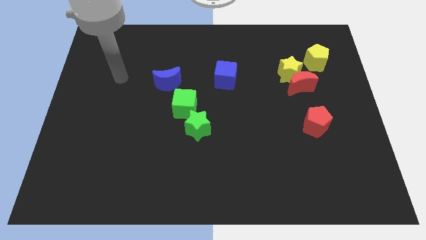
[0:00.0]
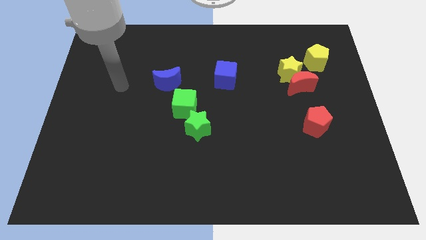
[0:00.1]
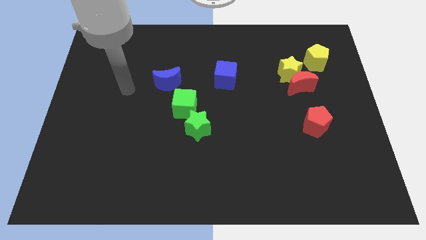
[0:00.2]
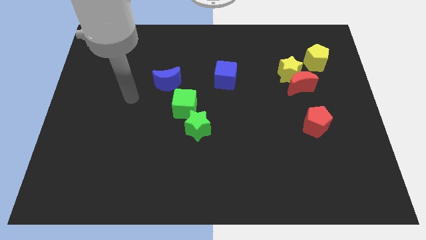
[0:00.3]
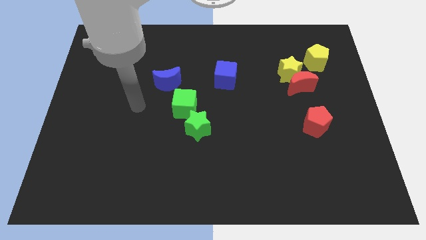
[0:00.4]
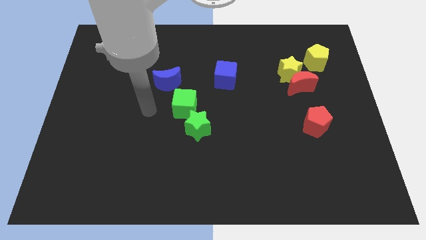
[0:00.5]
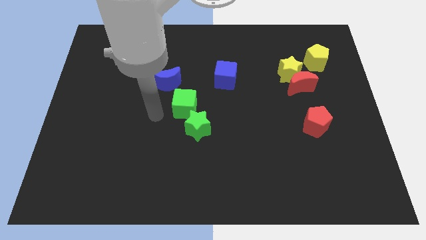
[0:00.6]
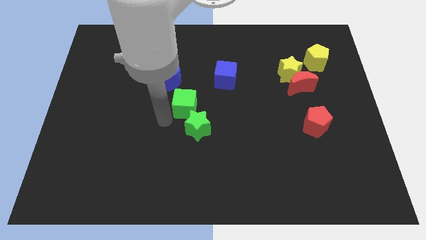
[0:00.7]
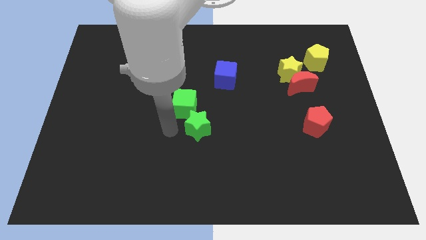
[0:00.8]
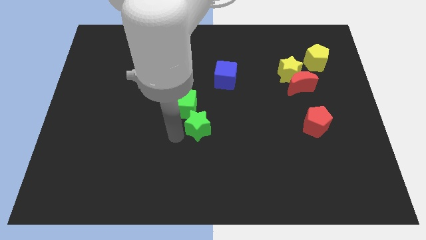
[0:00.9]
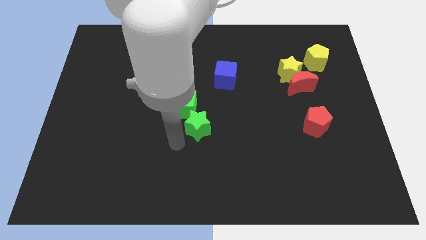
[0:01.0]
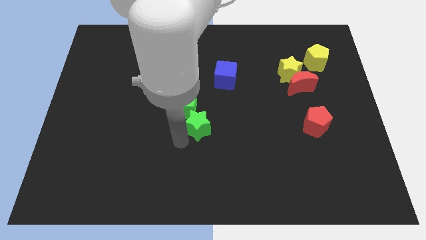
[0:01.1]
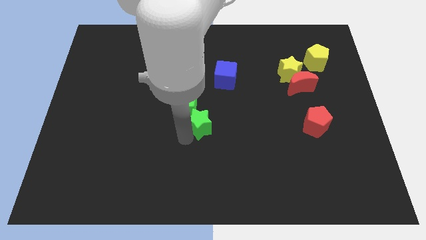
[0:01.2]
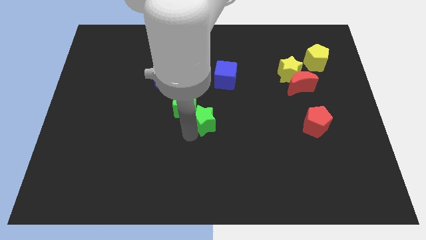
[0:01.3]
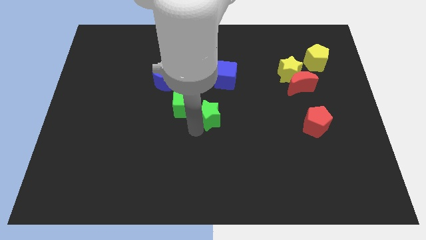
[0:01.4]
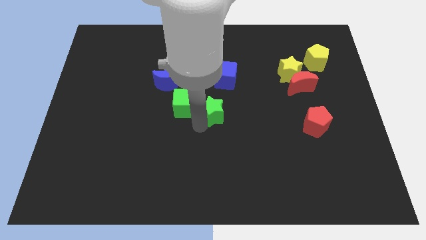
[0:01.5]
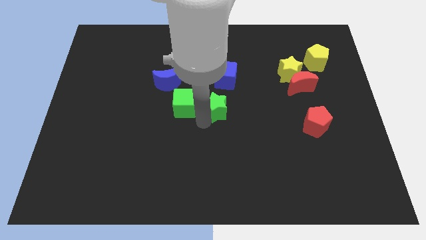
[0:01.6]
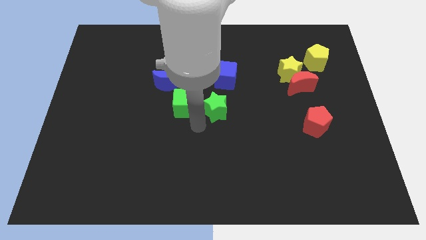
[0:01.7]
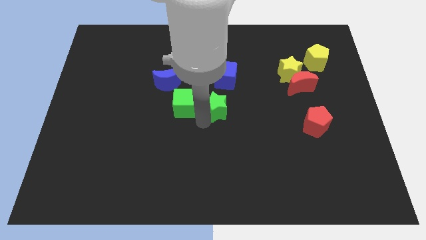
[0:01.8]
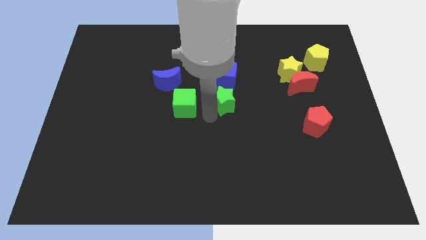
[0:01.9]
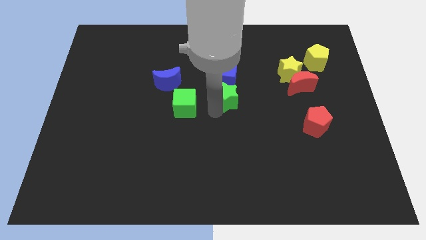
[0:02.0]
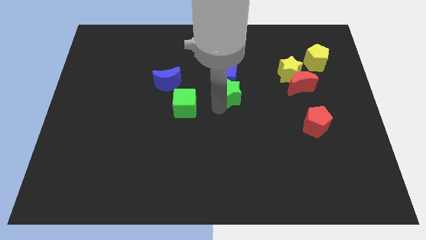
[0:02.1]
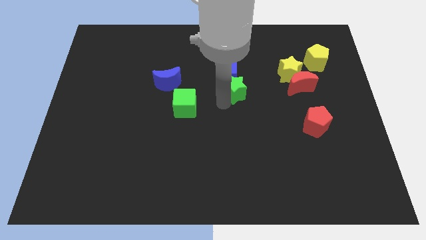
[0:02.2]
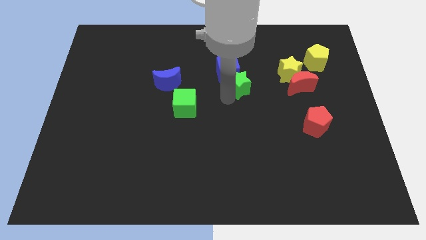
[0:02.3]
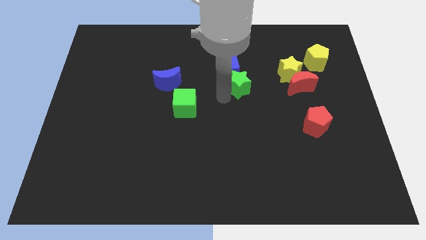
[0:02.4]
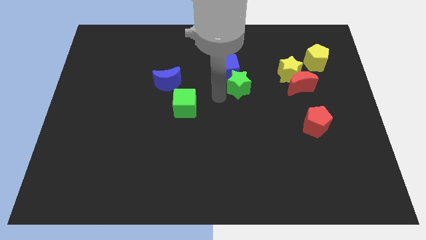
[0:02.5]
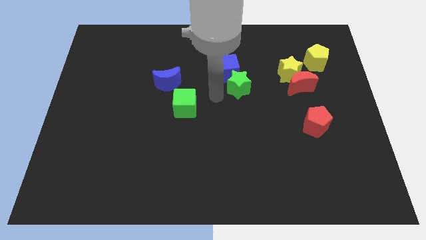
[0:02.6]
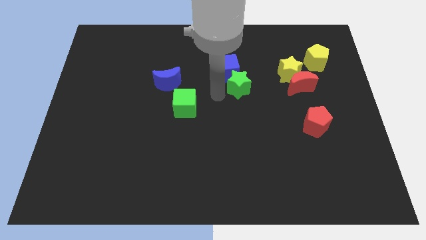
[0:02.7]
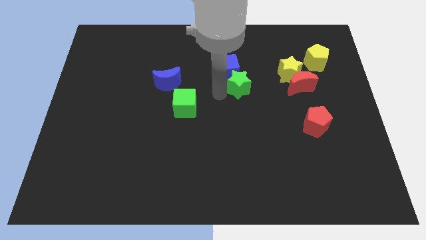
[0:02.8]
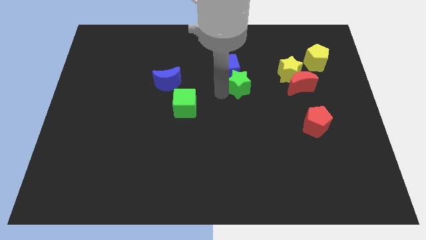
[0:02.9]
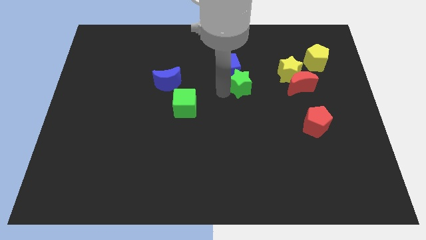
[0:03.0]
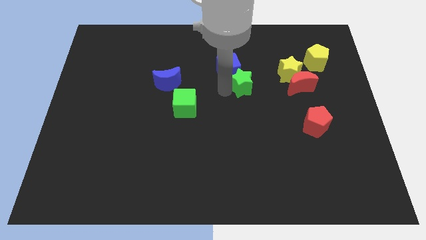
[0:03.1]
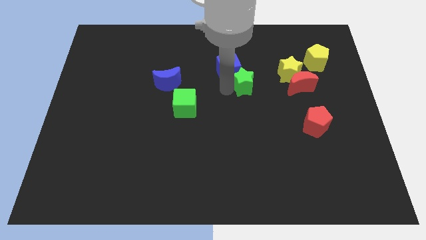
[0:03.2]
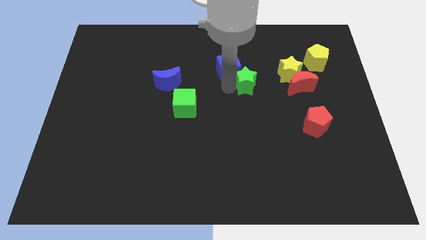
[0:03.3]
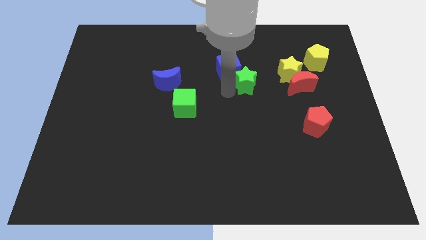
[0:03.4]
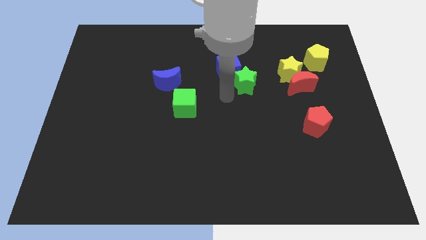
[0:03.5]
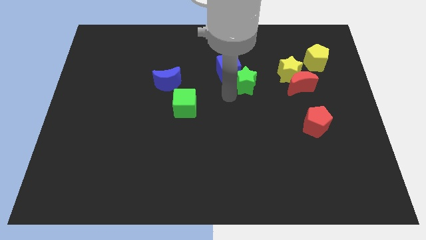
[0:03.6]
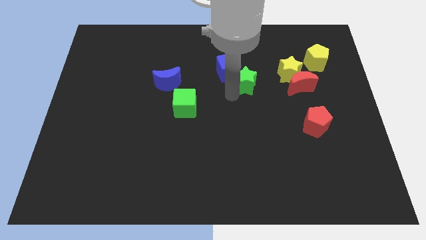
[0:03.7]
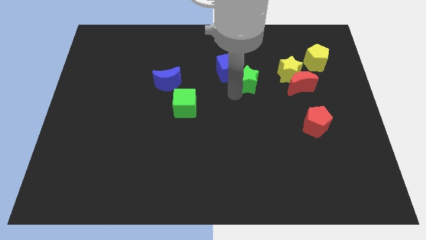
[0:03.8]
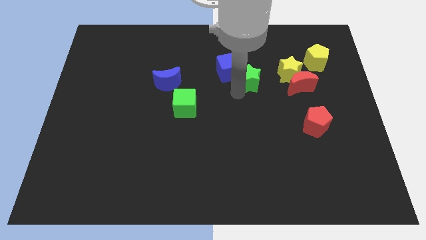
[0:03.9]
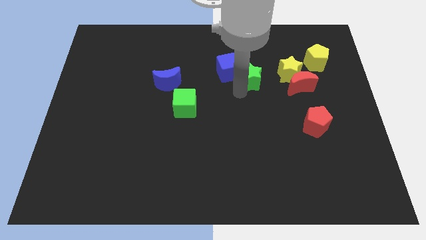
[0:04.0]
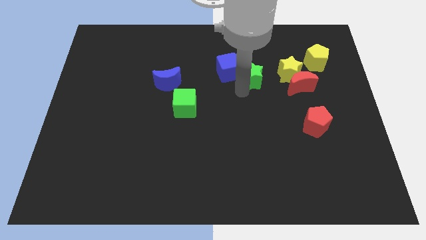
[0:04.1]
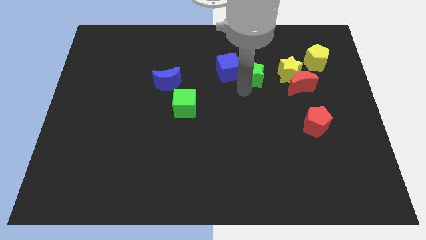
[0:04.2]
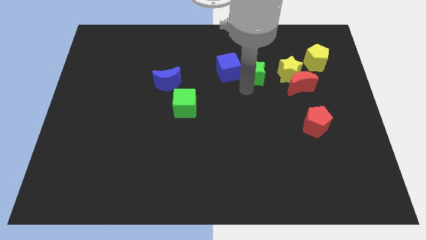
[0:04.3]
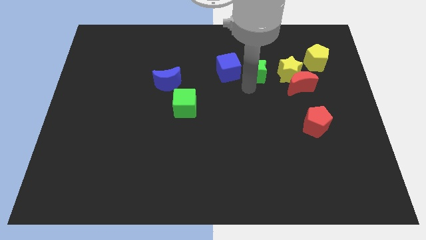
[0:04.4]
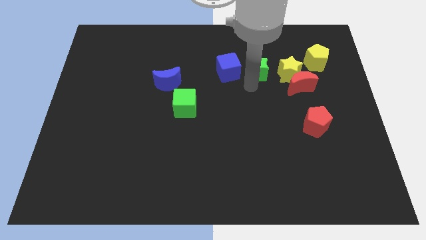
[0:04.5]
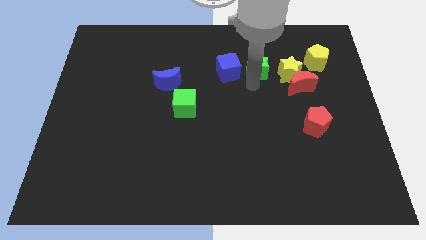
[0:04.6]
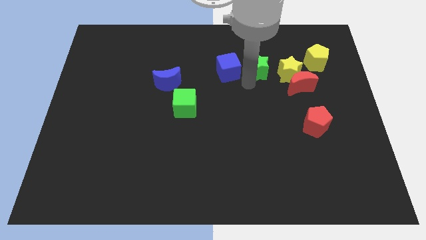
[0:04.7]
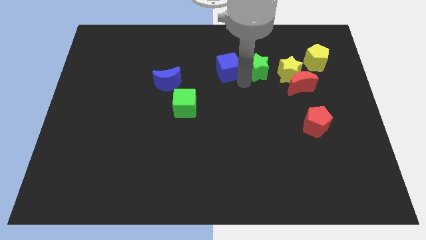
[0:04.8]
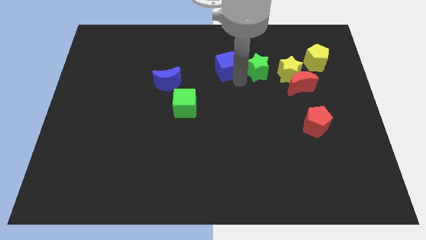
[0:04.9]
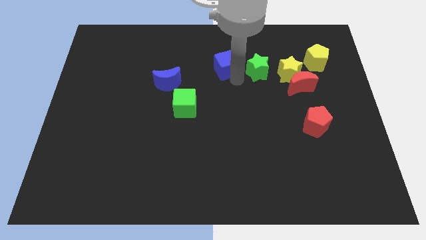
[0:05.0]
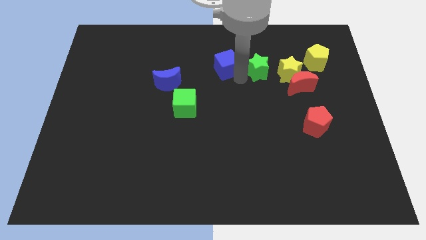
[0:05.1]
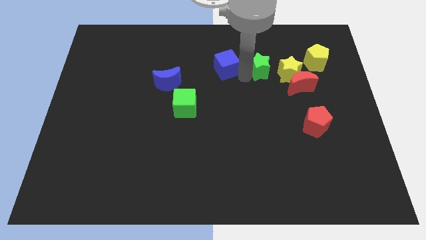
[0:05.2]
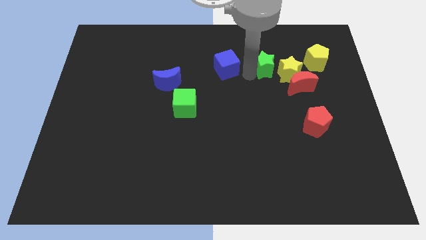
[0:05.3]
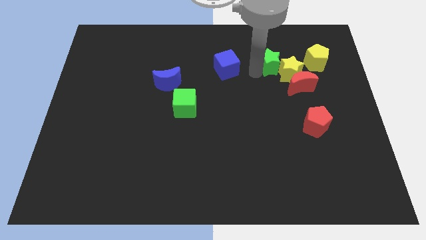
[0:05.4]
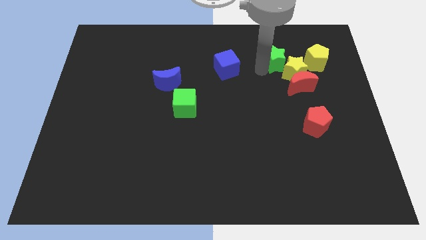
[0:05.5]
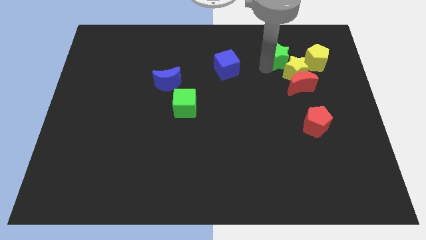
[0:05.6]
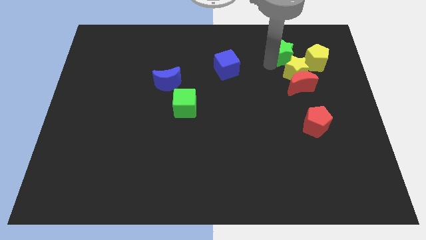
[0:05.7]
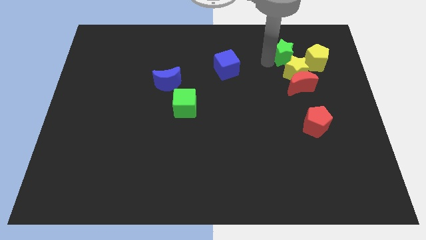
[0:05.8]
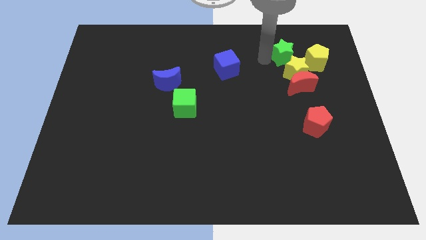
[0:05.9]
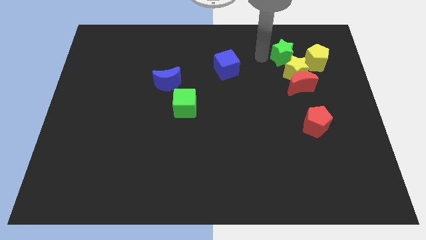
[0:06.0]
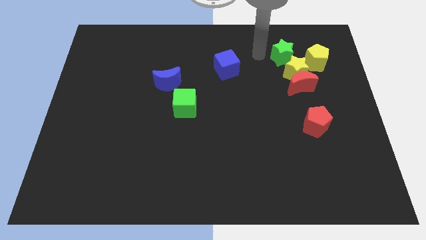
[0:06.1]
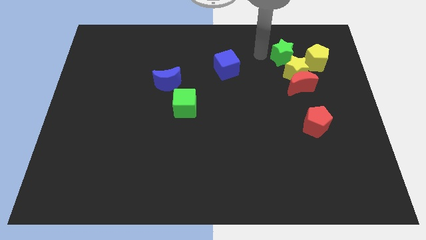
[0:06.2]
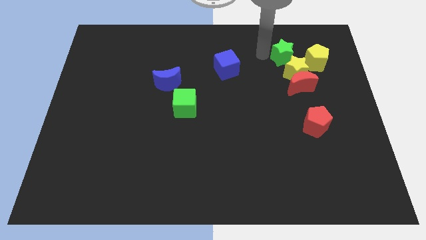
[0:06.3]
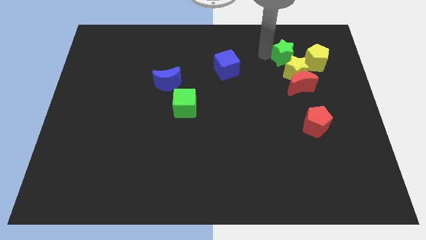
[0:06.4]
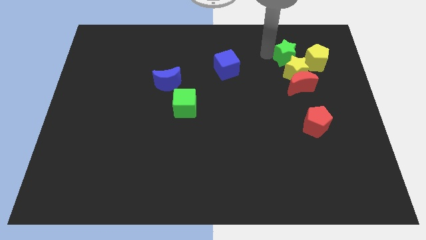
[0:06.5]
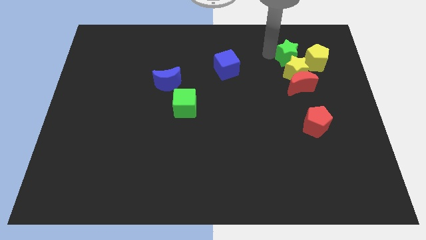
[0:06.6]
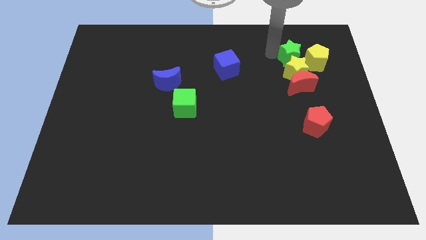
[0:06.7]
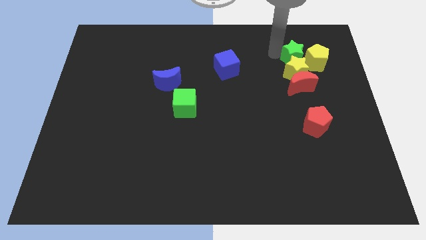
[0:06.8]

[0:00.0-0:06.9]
move the green star next to the yellow pentagon

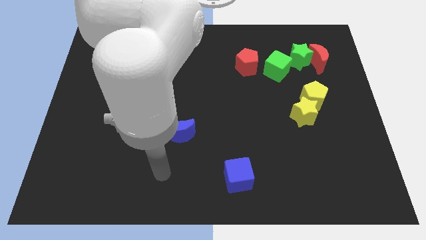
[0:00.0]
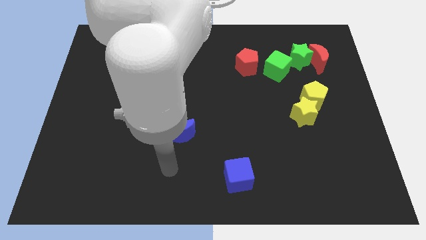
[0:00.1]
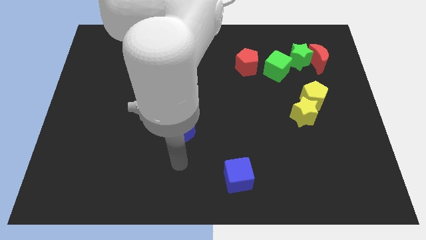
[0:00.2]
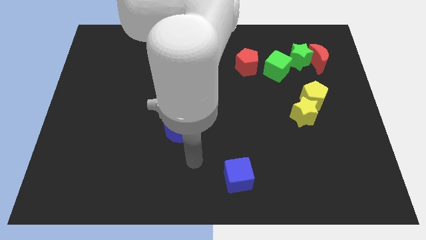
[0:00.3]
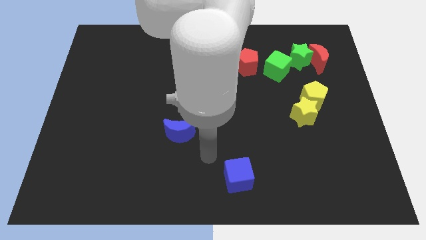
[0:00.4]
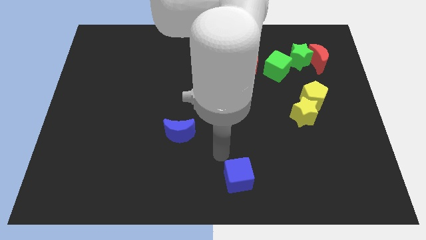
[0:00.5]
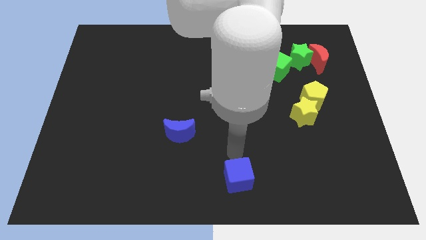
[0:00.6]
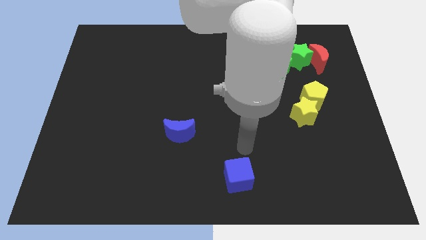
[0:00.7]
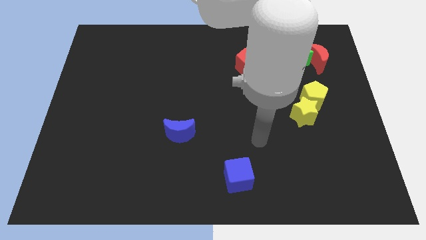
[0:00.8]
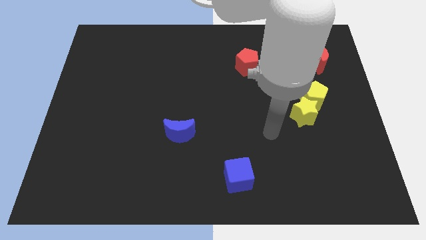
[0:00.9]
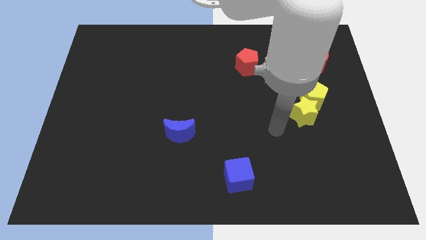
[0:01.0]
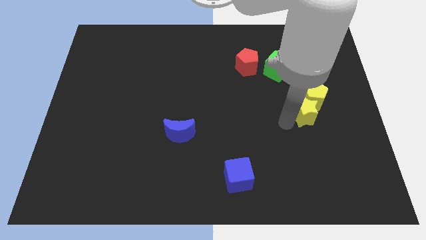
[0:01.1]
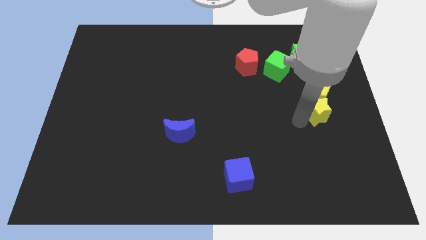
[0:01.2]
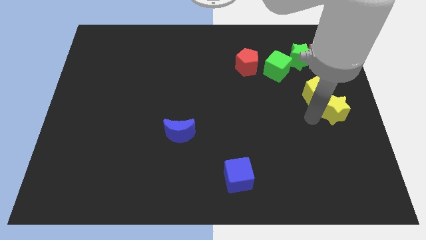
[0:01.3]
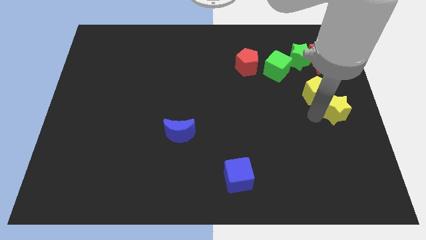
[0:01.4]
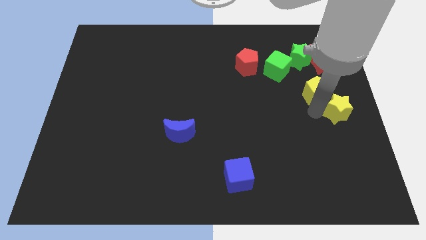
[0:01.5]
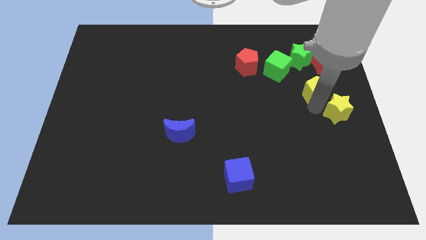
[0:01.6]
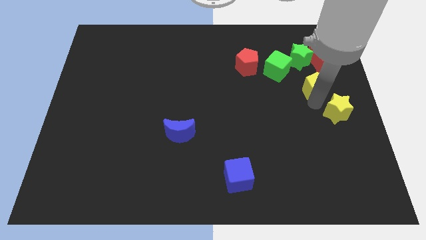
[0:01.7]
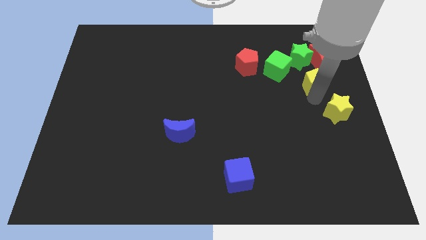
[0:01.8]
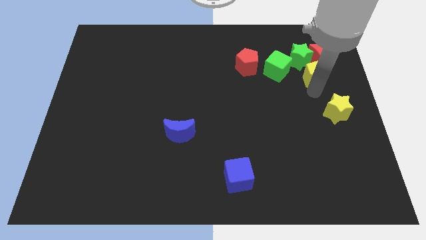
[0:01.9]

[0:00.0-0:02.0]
slide the yellow pentagon towards the red moon
